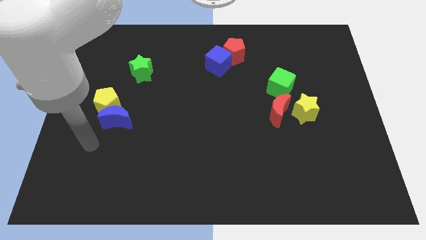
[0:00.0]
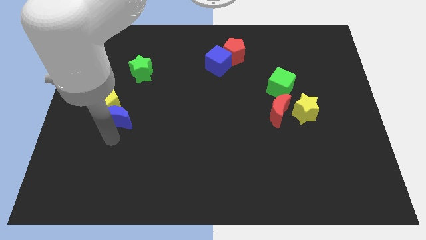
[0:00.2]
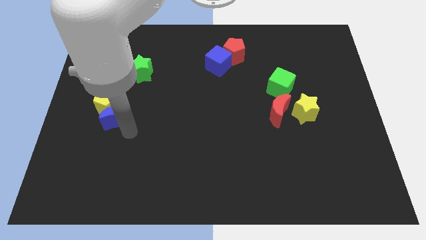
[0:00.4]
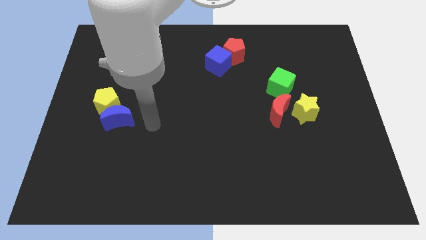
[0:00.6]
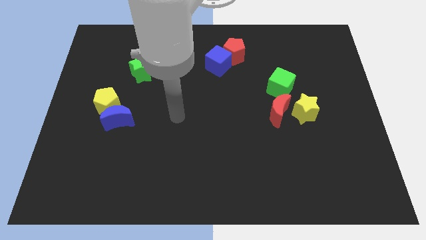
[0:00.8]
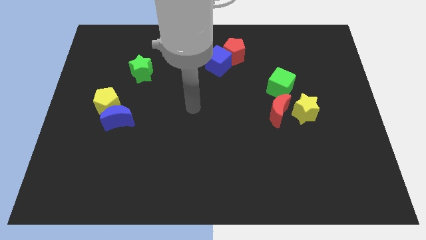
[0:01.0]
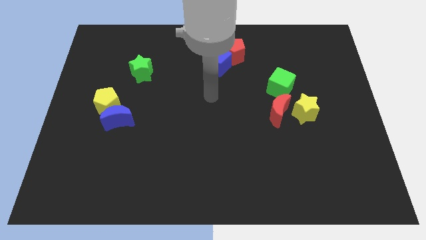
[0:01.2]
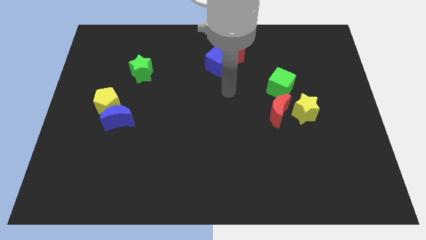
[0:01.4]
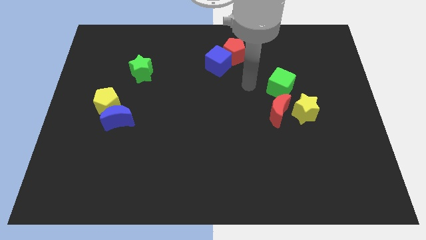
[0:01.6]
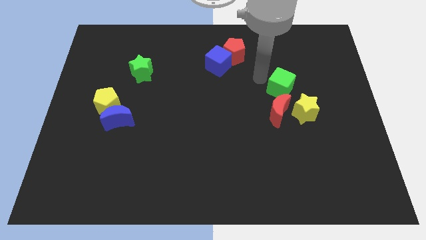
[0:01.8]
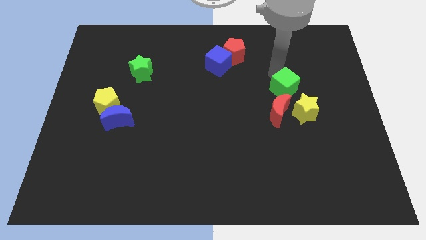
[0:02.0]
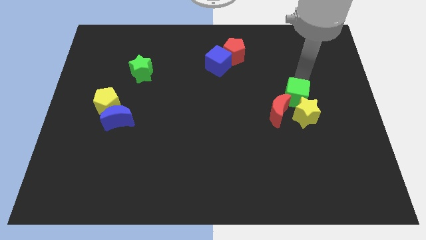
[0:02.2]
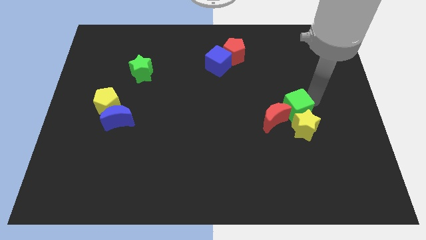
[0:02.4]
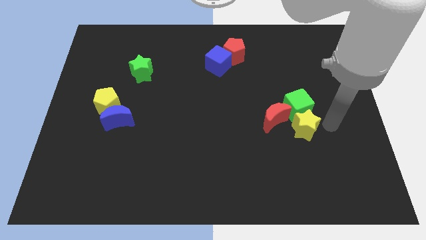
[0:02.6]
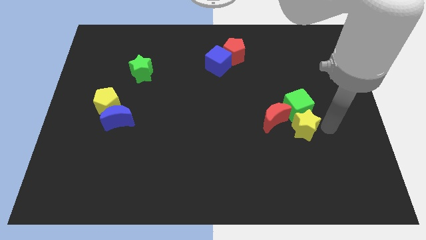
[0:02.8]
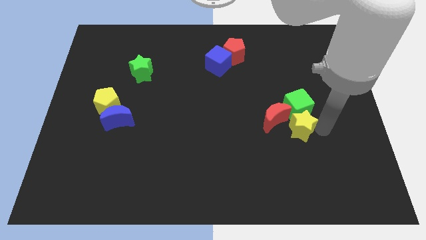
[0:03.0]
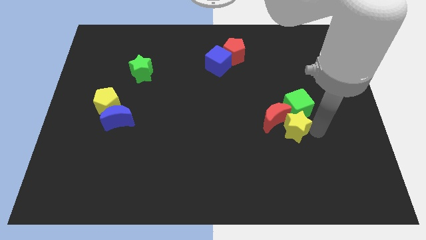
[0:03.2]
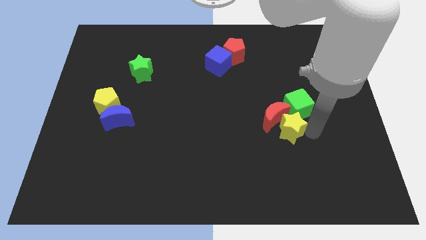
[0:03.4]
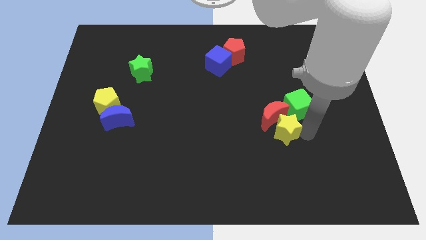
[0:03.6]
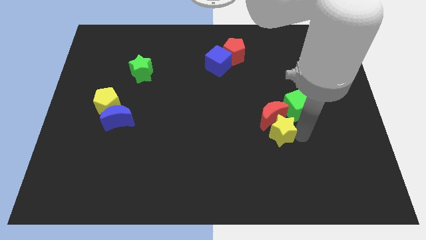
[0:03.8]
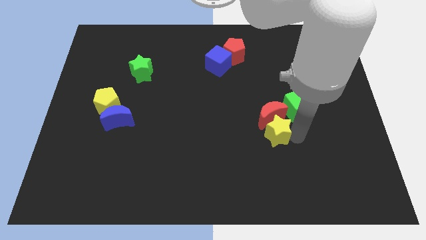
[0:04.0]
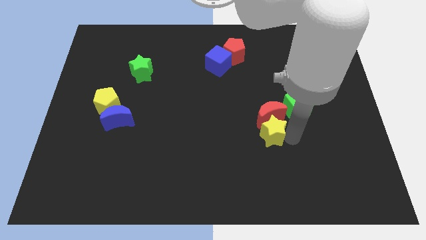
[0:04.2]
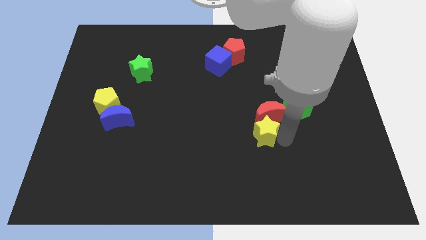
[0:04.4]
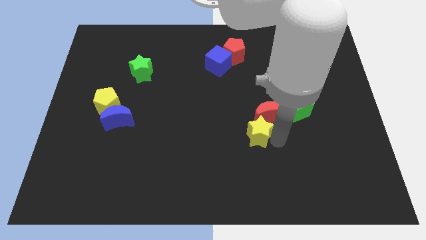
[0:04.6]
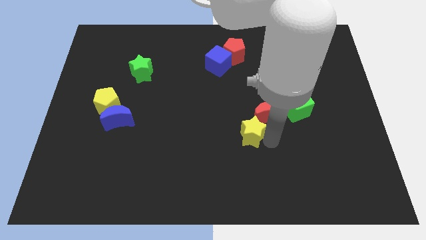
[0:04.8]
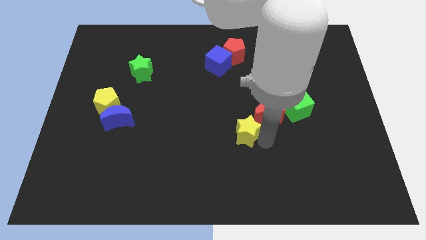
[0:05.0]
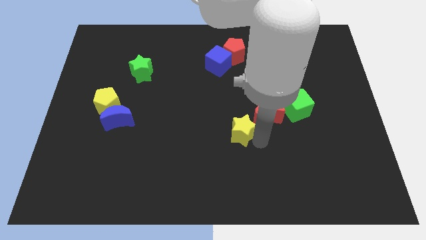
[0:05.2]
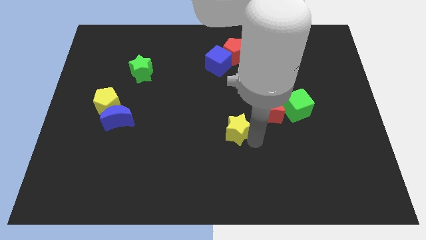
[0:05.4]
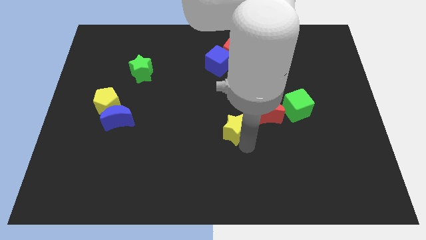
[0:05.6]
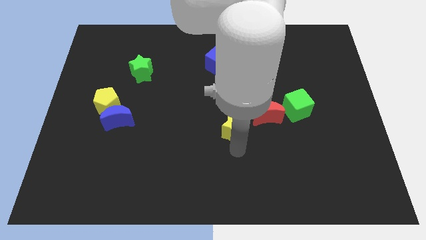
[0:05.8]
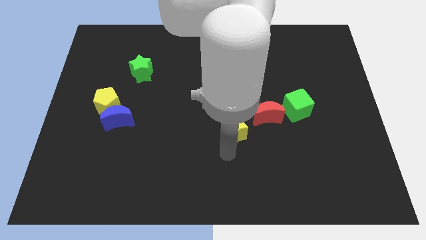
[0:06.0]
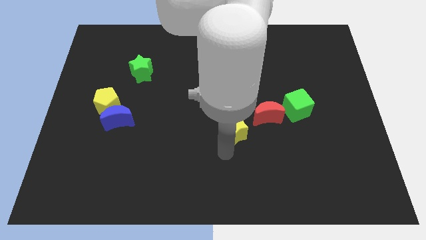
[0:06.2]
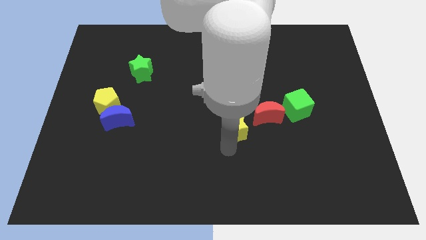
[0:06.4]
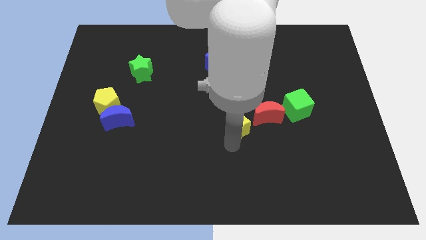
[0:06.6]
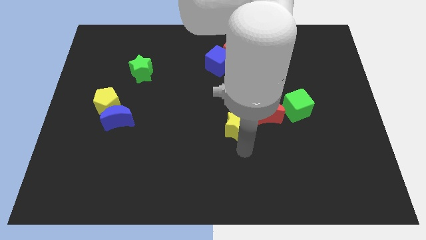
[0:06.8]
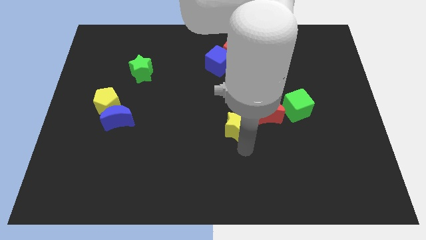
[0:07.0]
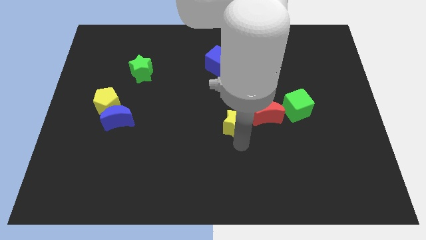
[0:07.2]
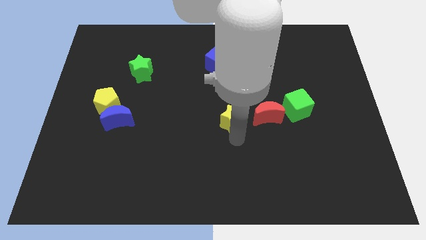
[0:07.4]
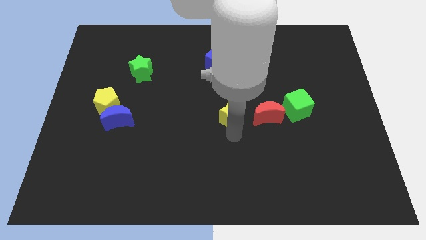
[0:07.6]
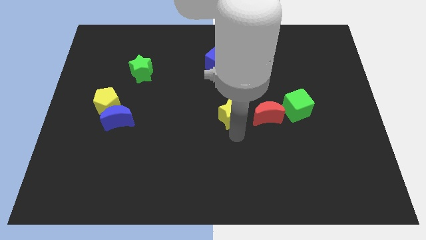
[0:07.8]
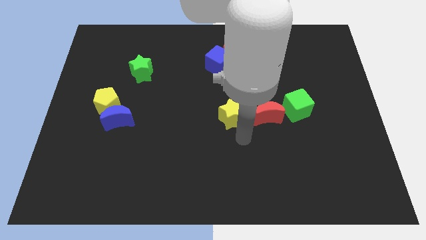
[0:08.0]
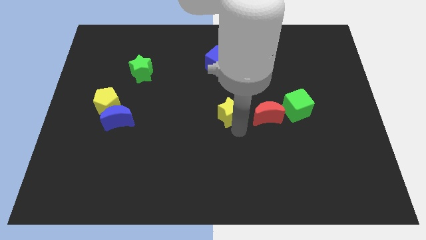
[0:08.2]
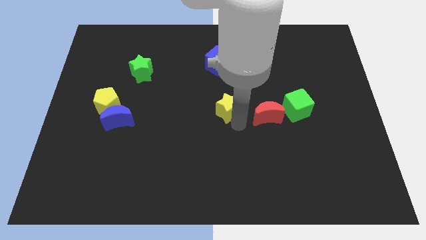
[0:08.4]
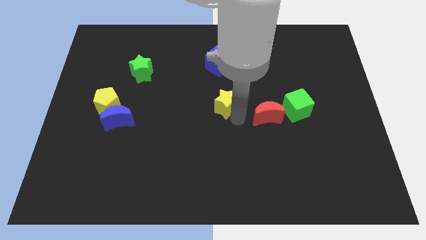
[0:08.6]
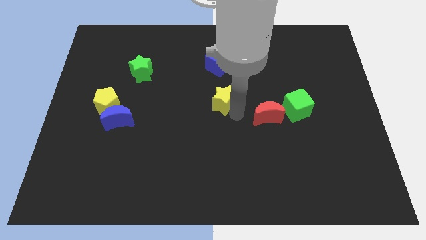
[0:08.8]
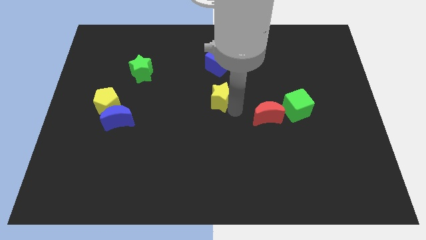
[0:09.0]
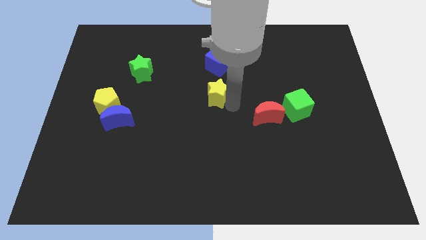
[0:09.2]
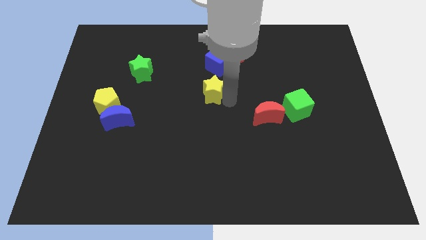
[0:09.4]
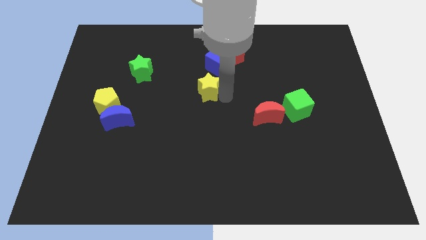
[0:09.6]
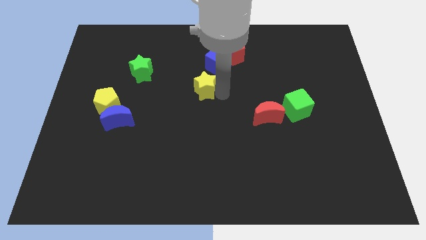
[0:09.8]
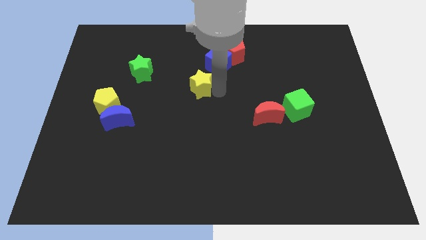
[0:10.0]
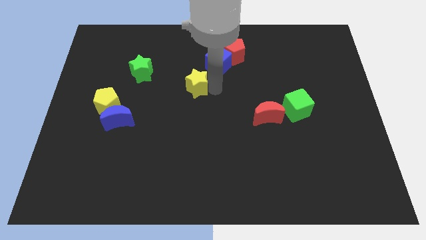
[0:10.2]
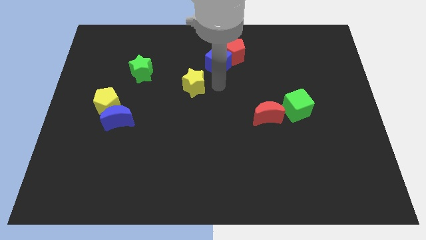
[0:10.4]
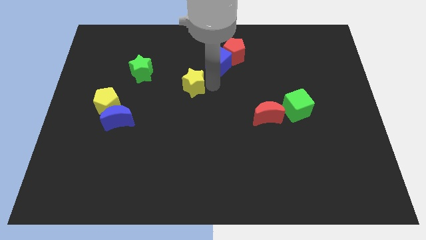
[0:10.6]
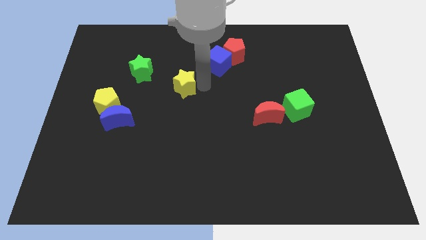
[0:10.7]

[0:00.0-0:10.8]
push the yellow star to the bottom right of the green star

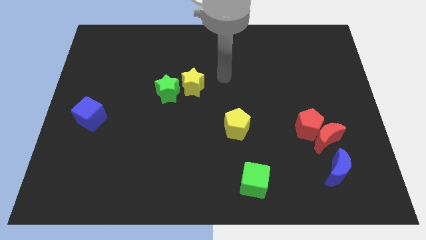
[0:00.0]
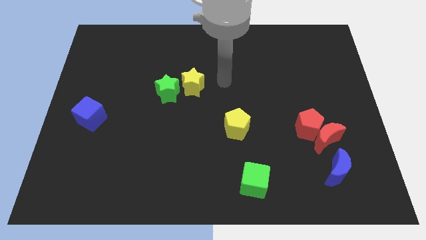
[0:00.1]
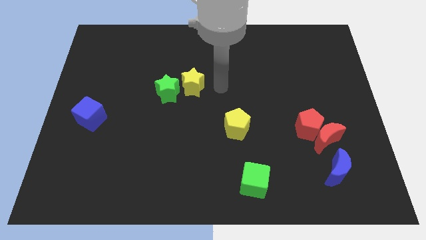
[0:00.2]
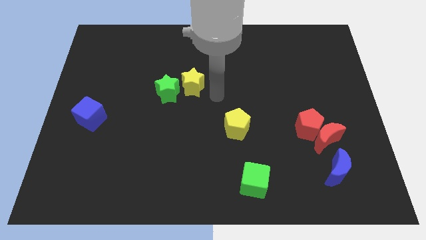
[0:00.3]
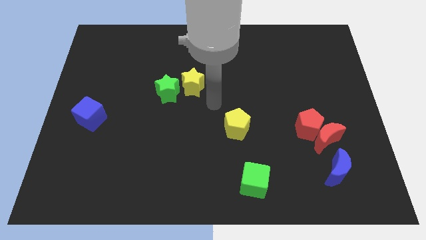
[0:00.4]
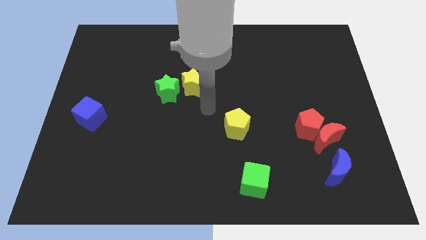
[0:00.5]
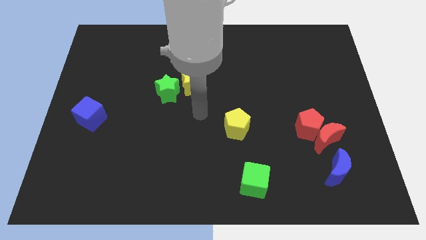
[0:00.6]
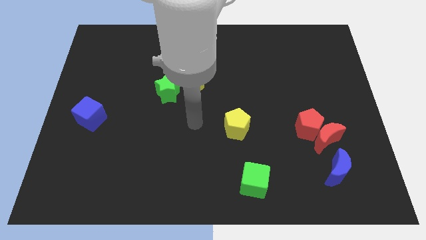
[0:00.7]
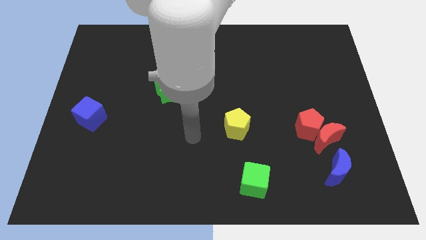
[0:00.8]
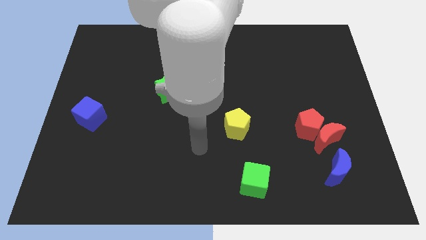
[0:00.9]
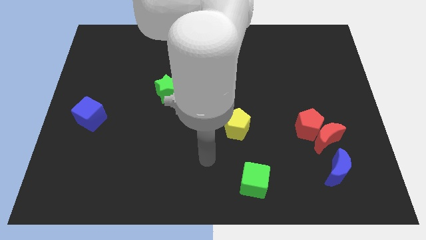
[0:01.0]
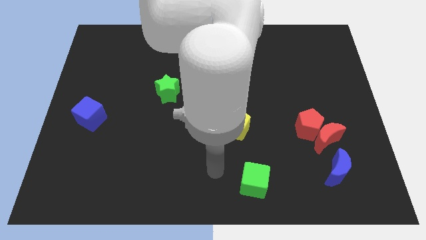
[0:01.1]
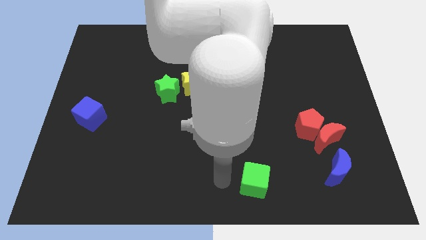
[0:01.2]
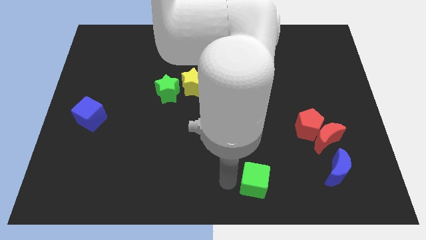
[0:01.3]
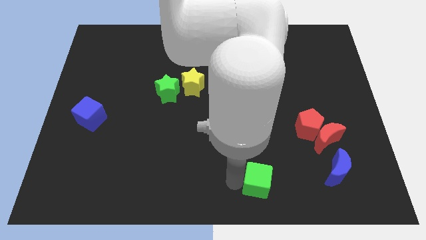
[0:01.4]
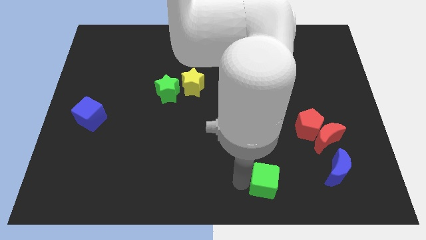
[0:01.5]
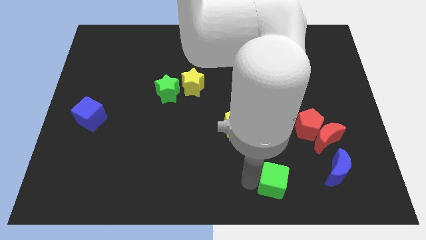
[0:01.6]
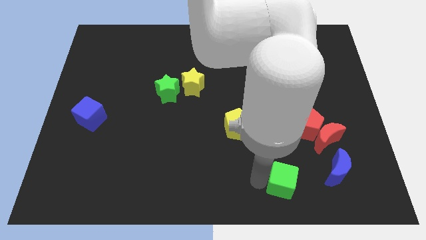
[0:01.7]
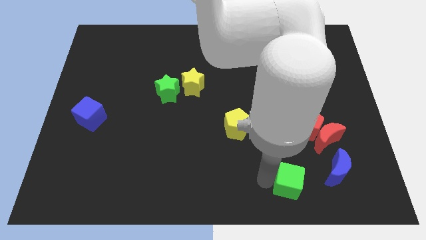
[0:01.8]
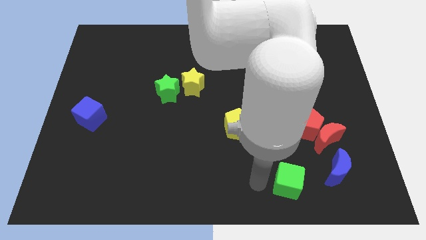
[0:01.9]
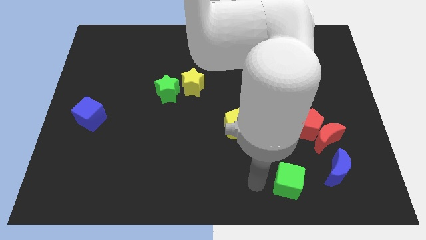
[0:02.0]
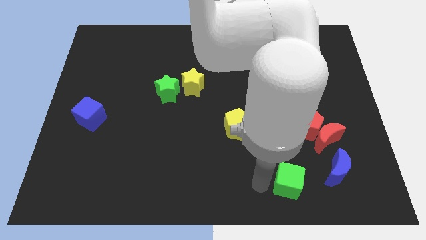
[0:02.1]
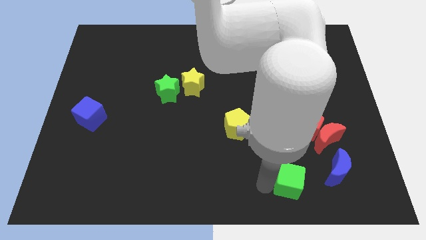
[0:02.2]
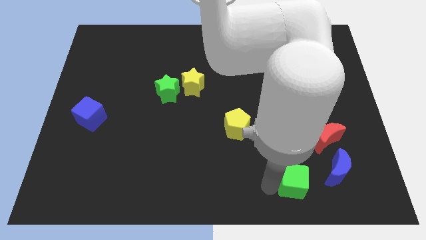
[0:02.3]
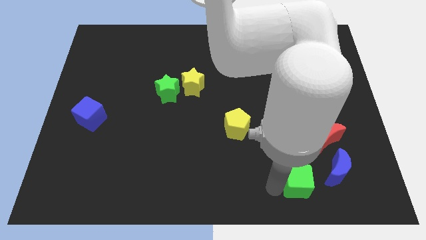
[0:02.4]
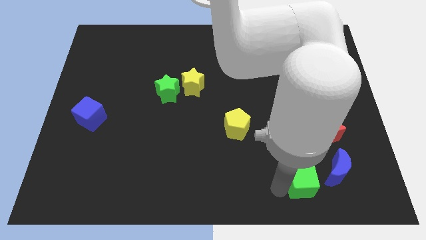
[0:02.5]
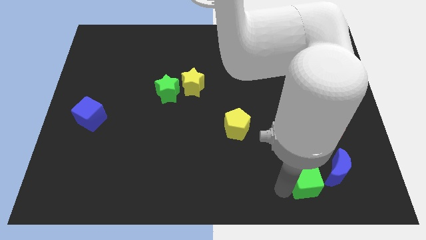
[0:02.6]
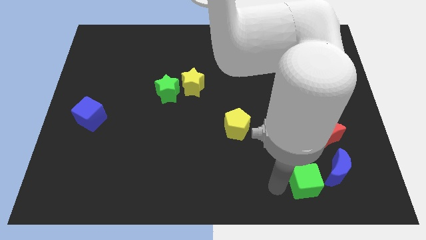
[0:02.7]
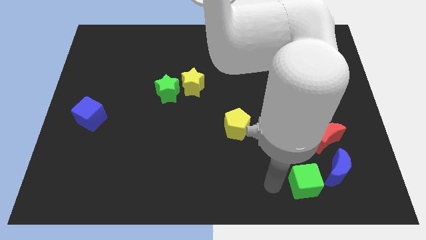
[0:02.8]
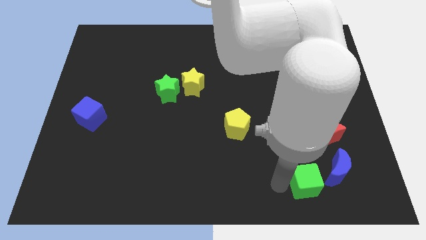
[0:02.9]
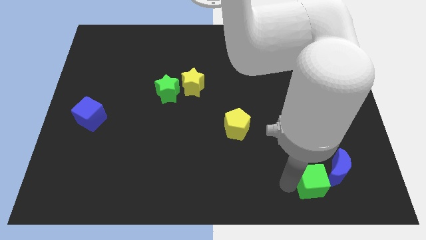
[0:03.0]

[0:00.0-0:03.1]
slide the green cube to the bottom side of the red moon
